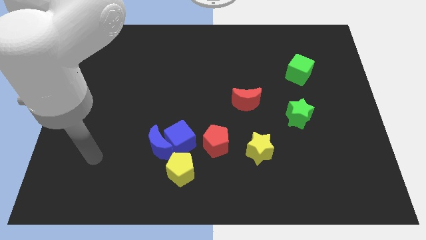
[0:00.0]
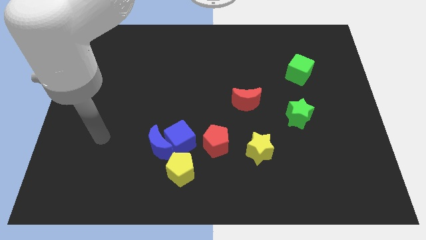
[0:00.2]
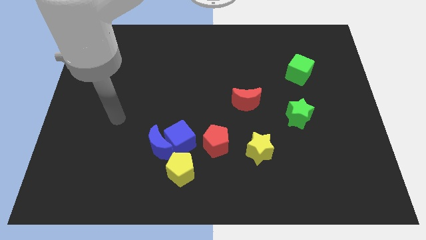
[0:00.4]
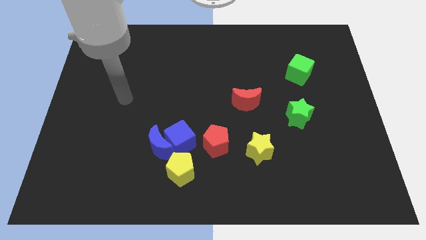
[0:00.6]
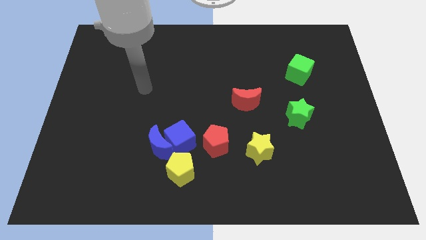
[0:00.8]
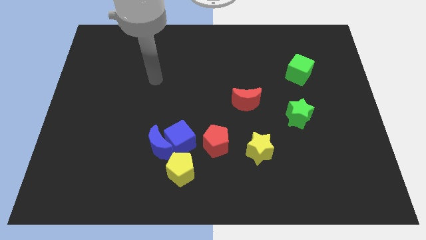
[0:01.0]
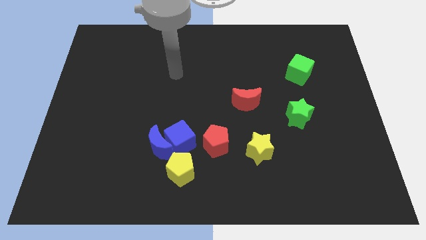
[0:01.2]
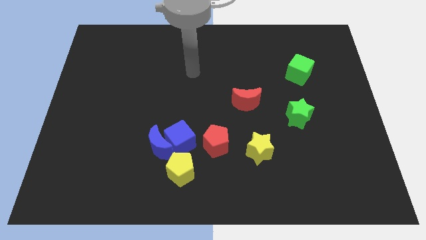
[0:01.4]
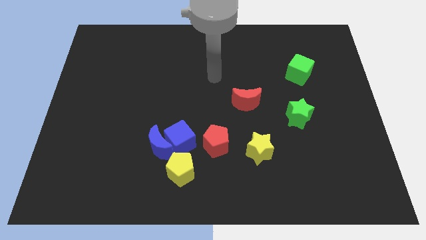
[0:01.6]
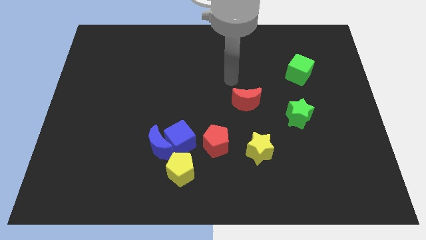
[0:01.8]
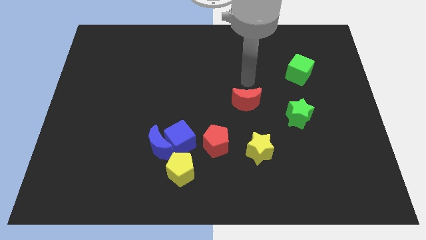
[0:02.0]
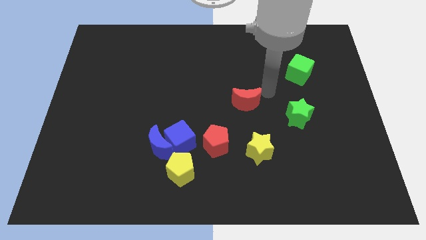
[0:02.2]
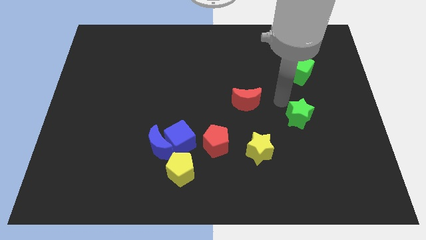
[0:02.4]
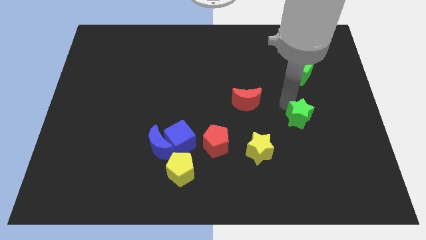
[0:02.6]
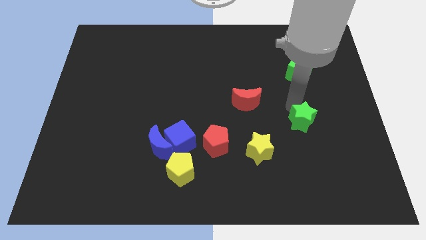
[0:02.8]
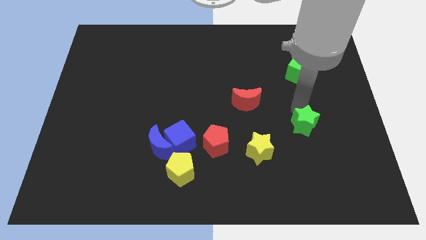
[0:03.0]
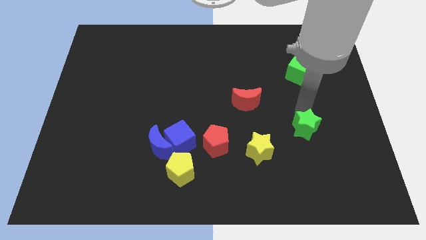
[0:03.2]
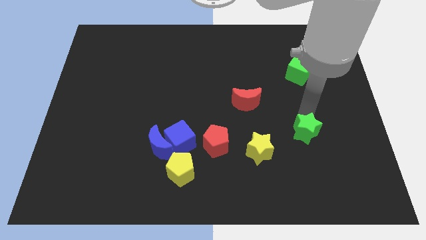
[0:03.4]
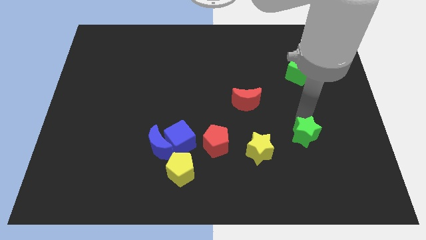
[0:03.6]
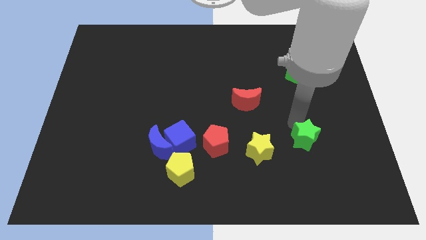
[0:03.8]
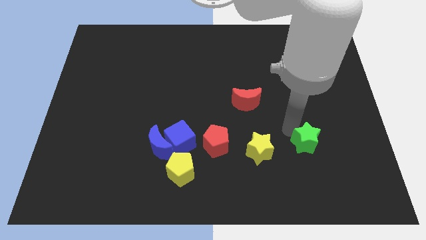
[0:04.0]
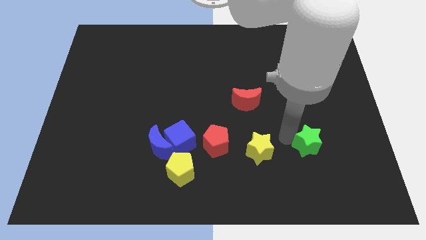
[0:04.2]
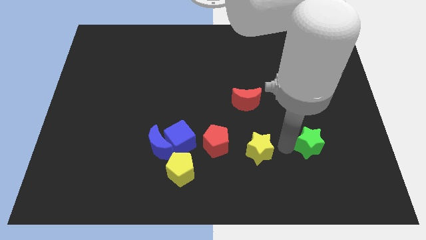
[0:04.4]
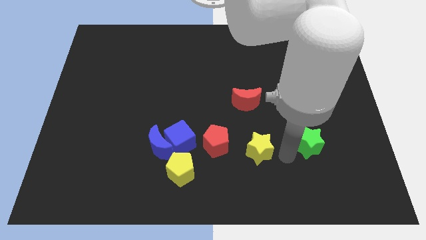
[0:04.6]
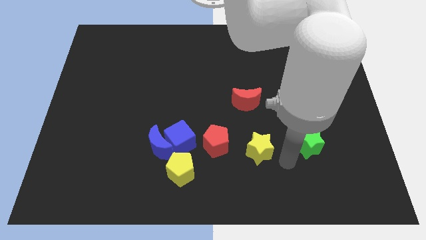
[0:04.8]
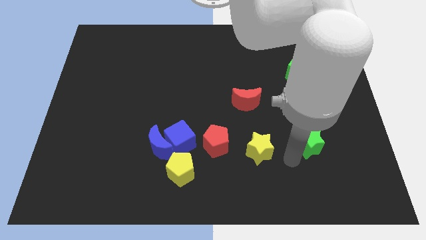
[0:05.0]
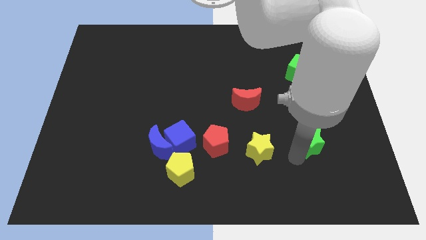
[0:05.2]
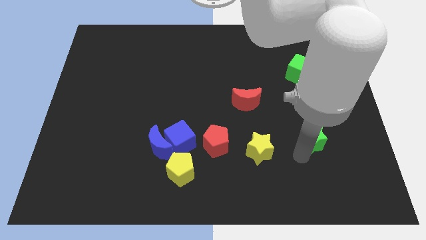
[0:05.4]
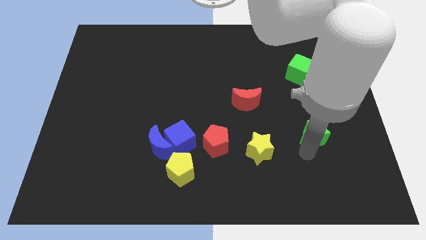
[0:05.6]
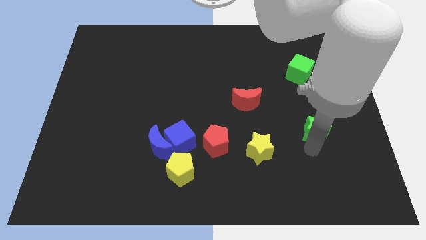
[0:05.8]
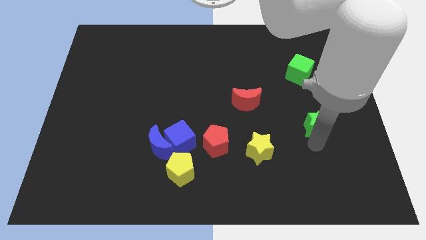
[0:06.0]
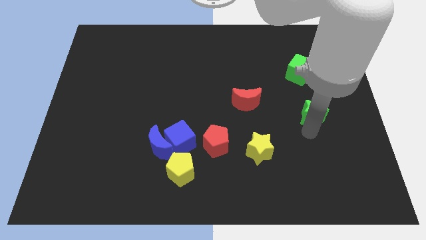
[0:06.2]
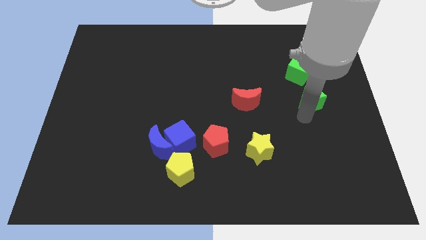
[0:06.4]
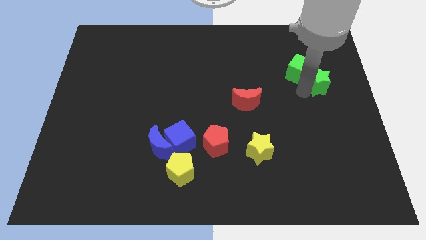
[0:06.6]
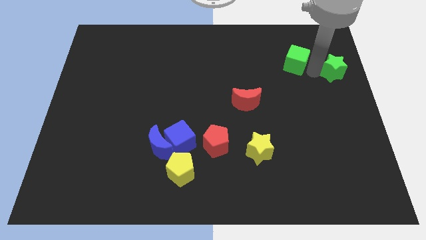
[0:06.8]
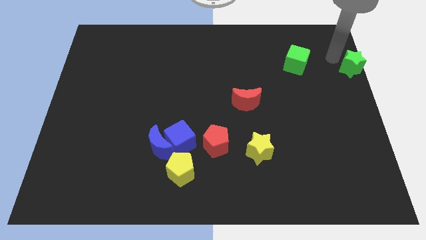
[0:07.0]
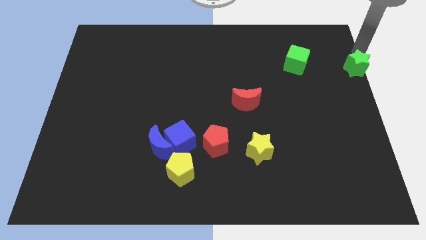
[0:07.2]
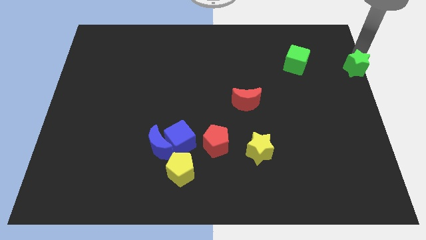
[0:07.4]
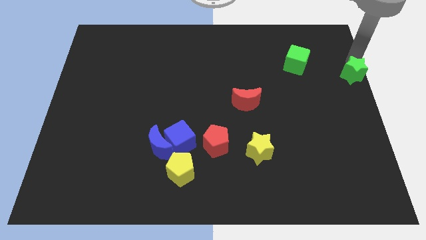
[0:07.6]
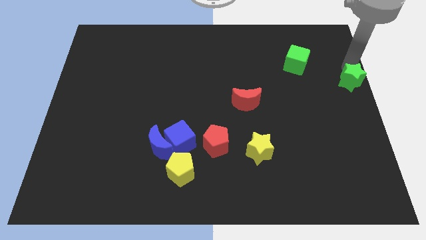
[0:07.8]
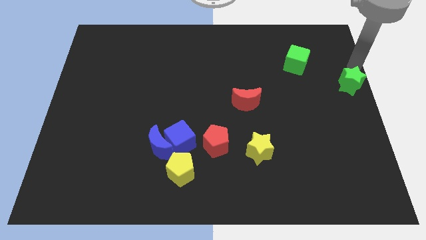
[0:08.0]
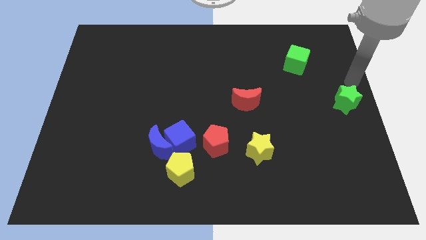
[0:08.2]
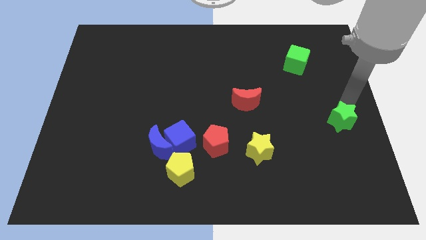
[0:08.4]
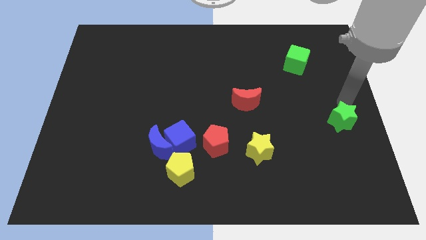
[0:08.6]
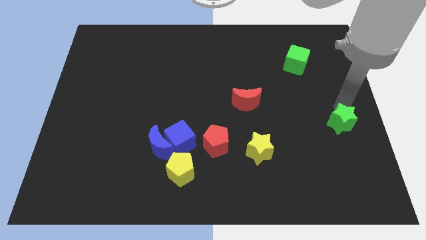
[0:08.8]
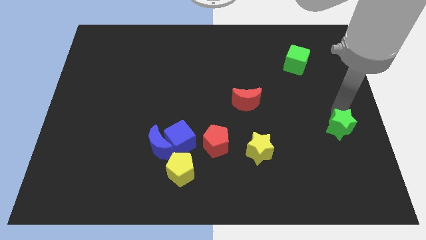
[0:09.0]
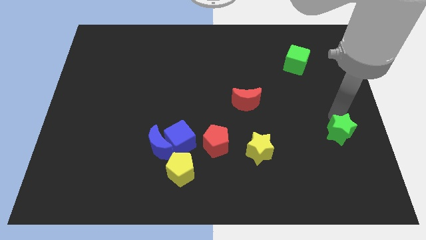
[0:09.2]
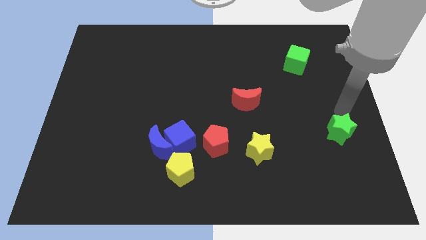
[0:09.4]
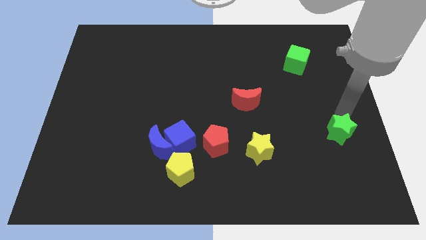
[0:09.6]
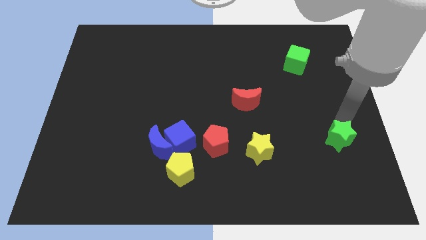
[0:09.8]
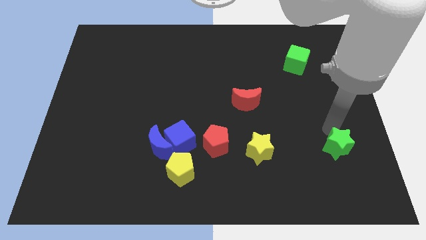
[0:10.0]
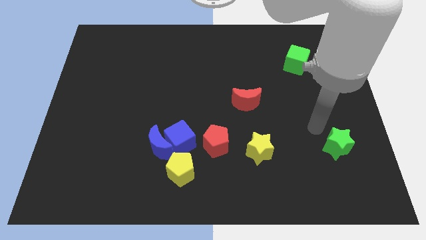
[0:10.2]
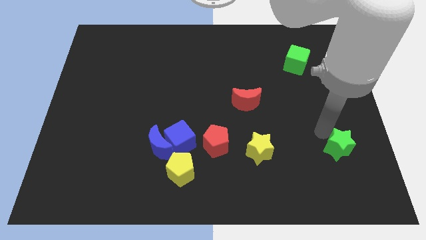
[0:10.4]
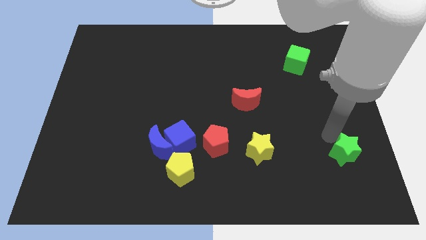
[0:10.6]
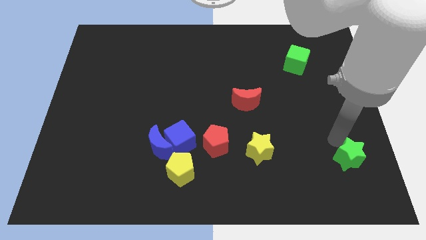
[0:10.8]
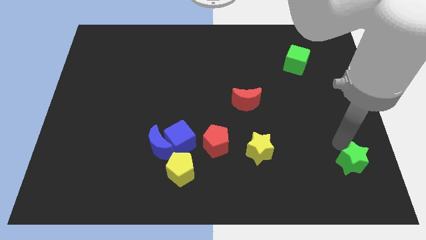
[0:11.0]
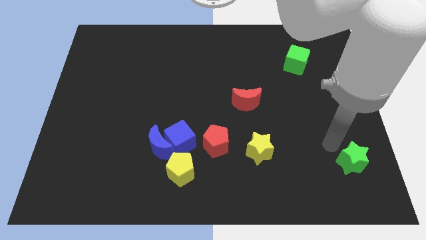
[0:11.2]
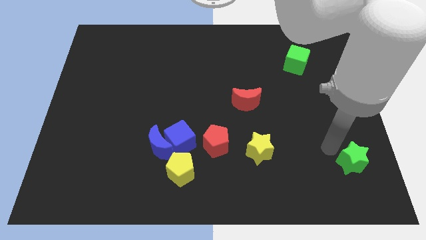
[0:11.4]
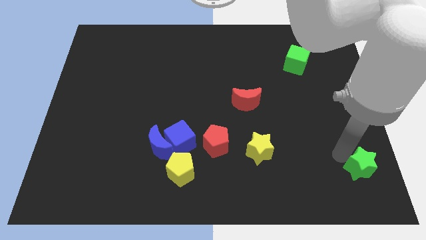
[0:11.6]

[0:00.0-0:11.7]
slide the green star to the bottom right

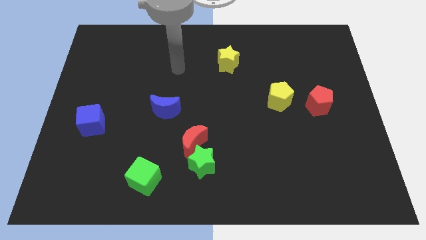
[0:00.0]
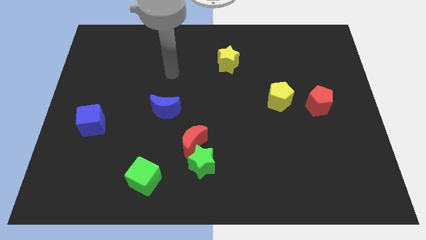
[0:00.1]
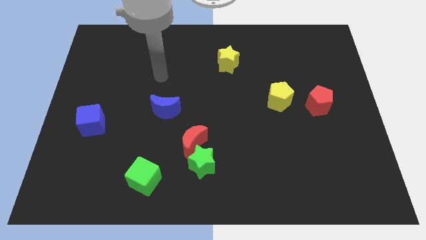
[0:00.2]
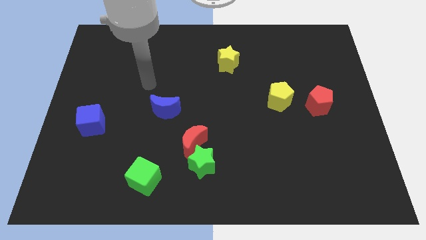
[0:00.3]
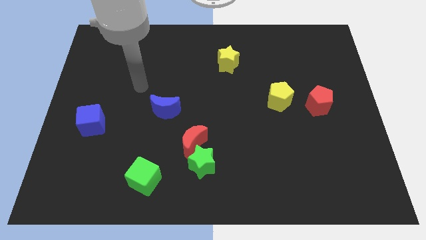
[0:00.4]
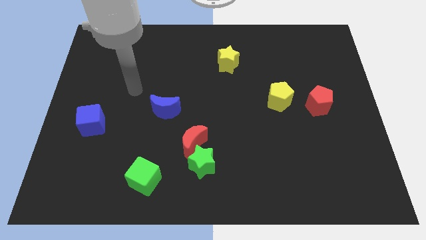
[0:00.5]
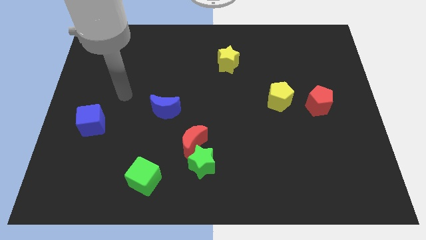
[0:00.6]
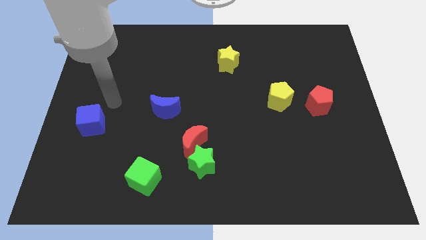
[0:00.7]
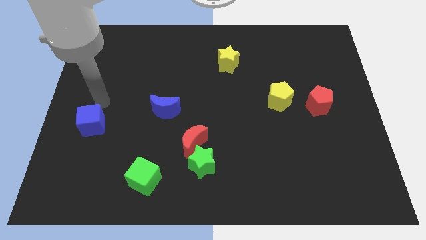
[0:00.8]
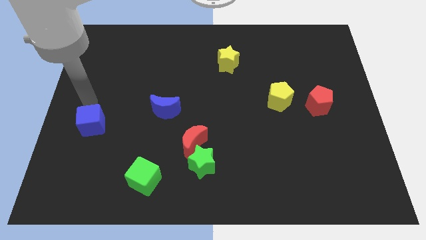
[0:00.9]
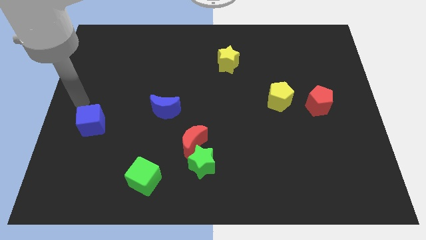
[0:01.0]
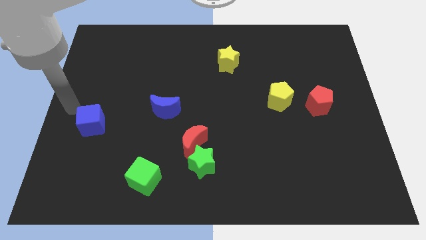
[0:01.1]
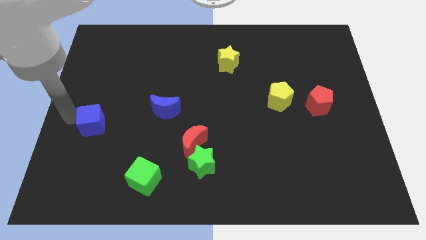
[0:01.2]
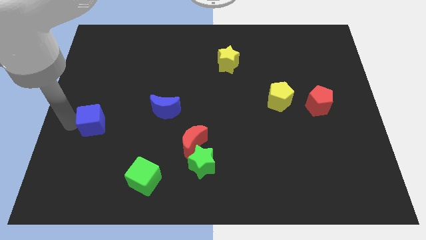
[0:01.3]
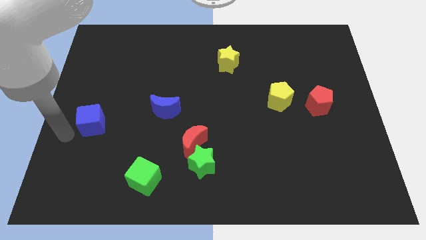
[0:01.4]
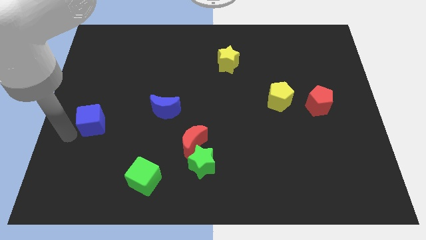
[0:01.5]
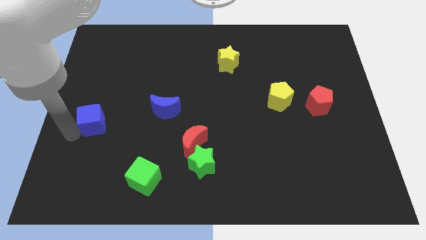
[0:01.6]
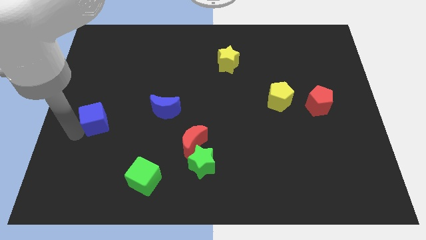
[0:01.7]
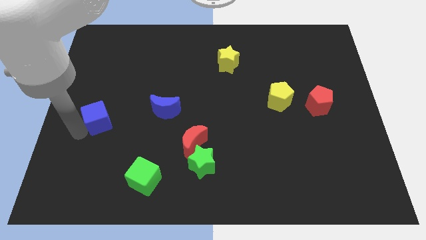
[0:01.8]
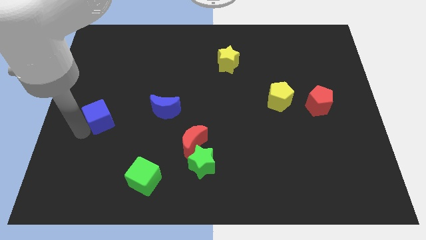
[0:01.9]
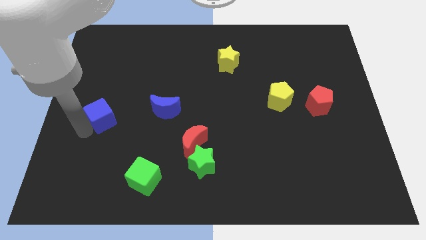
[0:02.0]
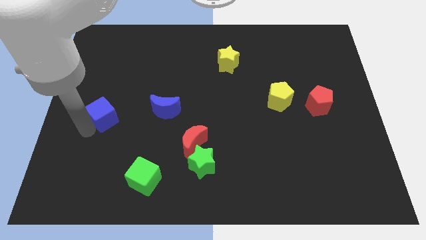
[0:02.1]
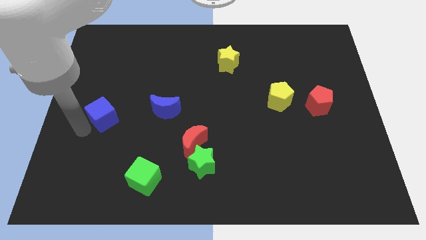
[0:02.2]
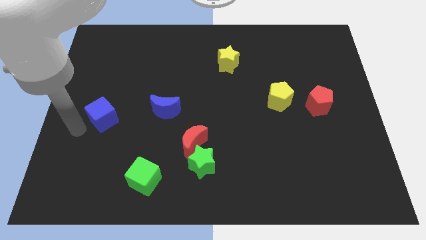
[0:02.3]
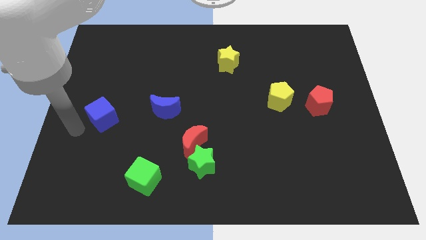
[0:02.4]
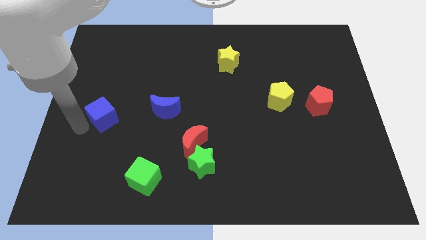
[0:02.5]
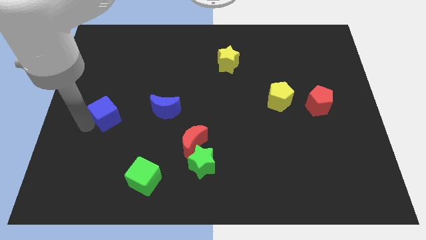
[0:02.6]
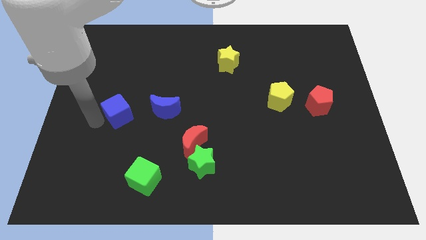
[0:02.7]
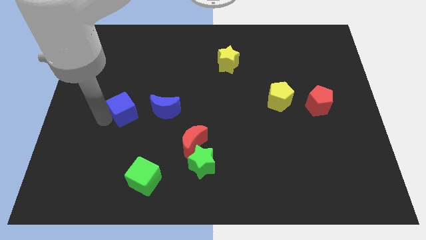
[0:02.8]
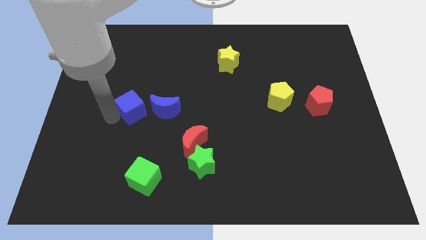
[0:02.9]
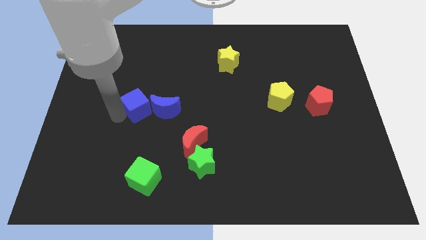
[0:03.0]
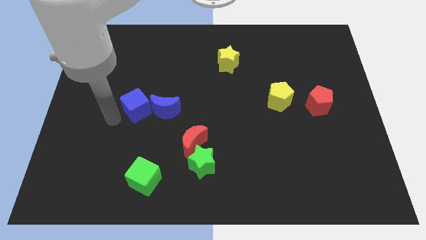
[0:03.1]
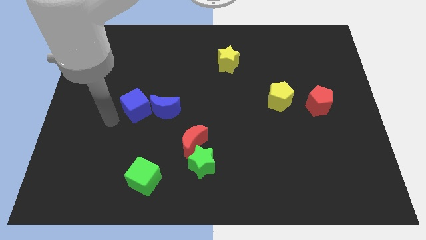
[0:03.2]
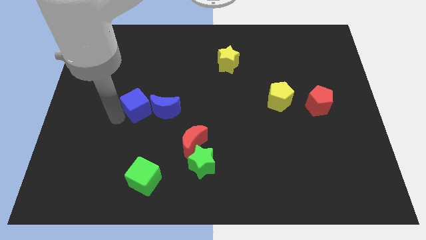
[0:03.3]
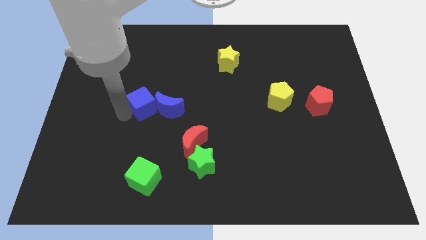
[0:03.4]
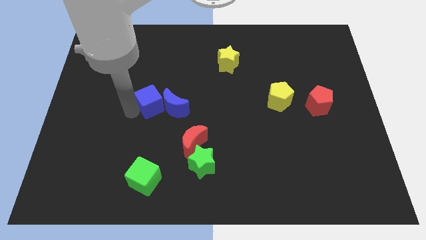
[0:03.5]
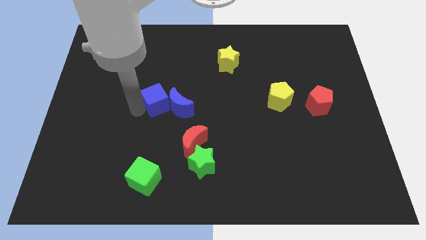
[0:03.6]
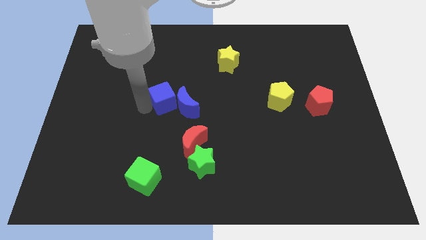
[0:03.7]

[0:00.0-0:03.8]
slide the blue cube to the center
